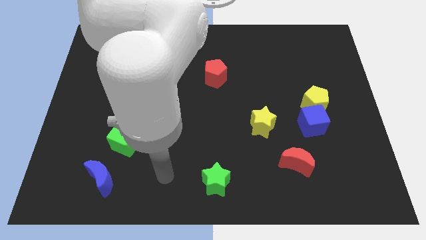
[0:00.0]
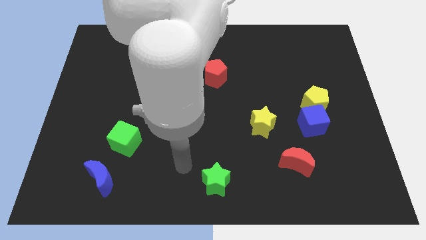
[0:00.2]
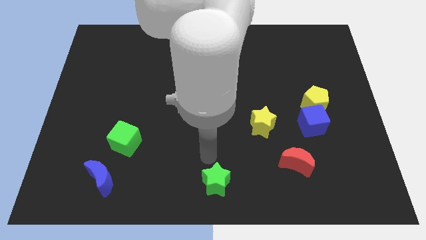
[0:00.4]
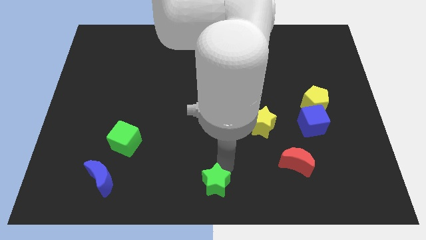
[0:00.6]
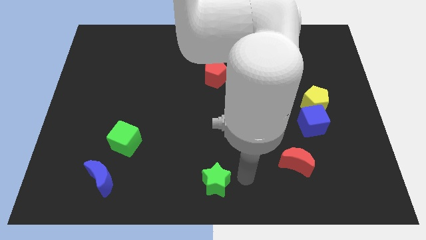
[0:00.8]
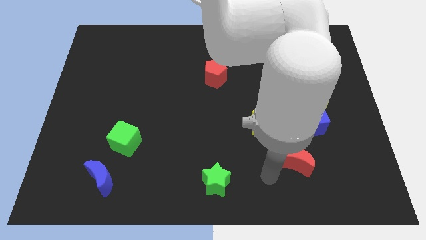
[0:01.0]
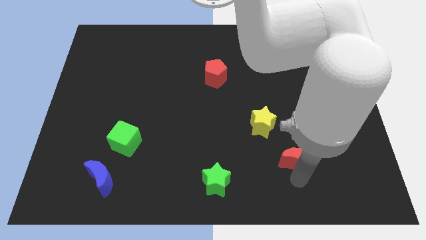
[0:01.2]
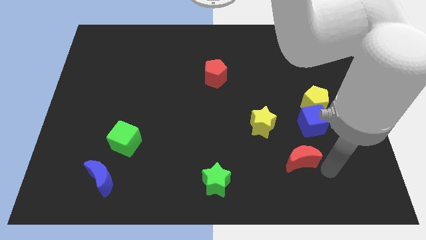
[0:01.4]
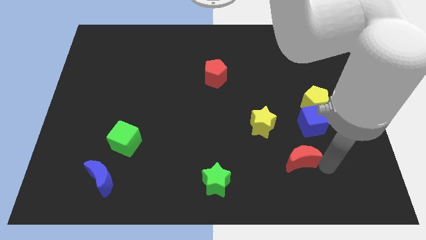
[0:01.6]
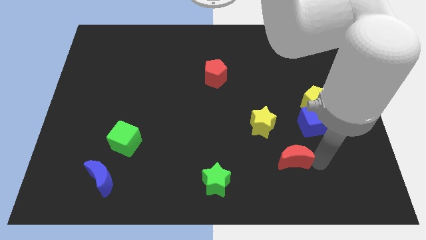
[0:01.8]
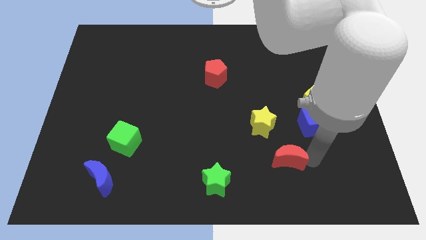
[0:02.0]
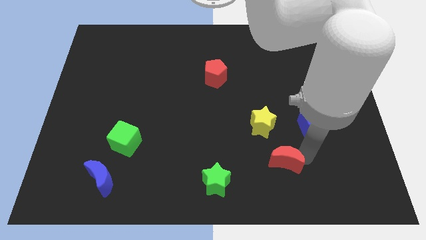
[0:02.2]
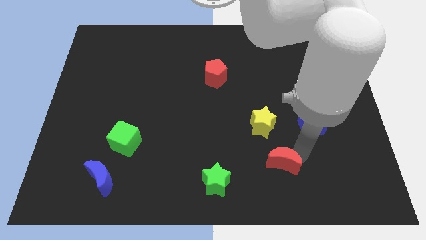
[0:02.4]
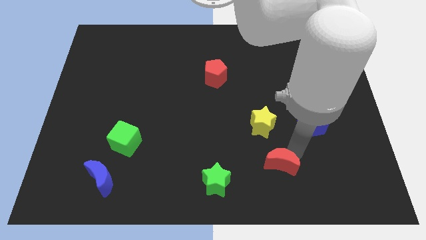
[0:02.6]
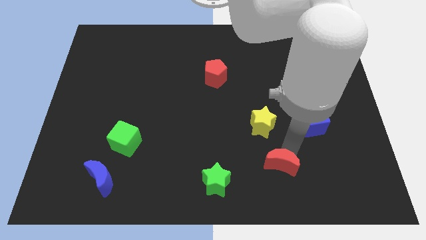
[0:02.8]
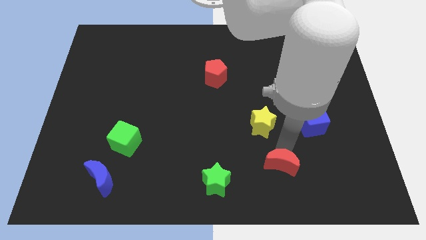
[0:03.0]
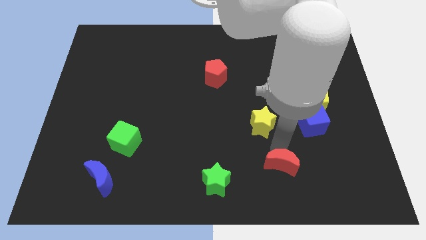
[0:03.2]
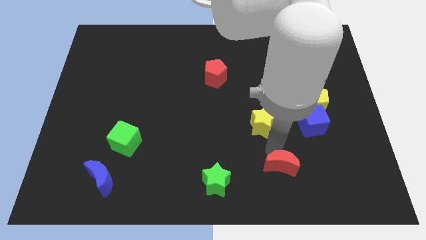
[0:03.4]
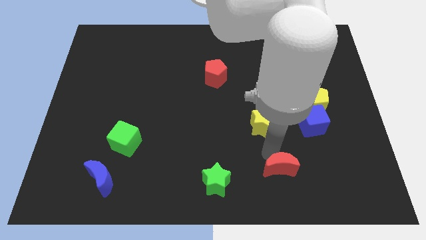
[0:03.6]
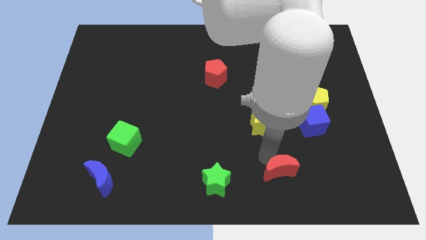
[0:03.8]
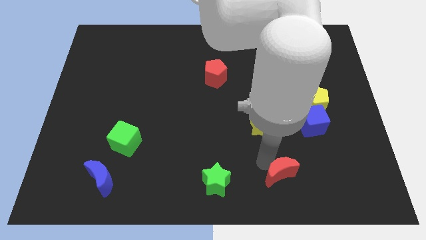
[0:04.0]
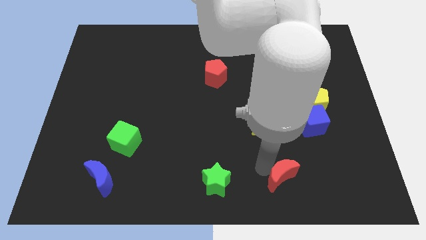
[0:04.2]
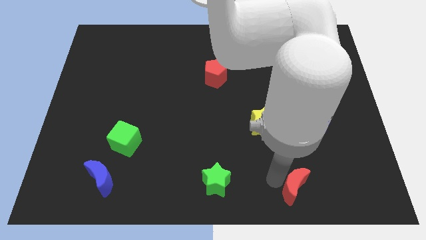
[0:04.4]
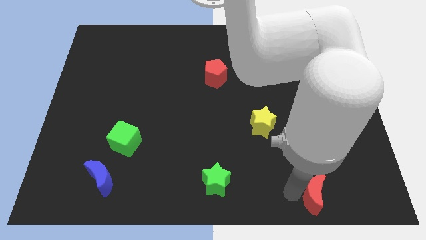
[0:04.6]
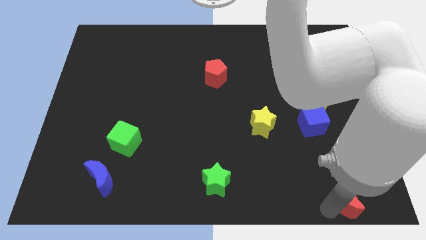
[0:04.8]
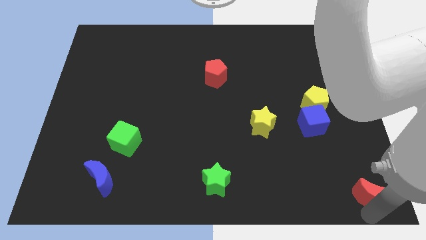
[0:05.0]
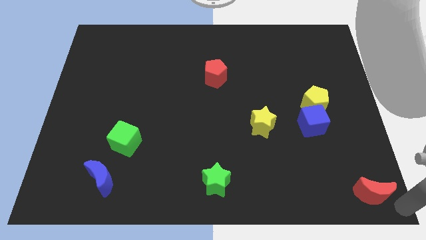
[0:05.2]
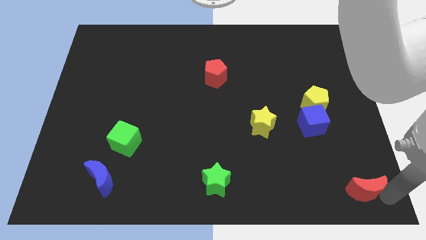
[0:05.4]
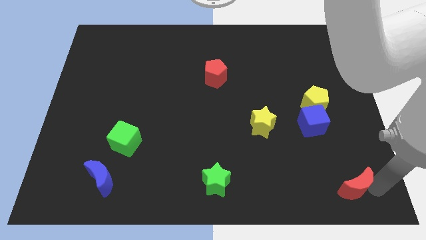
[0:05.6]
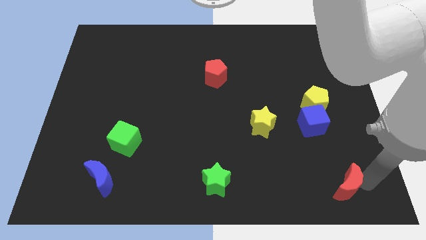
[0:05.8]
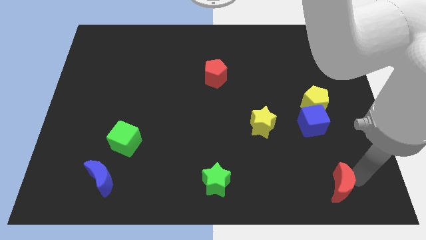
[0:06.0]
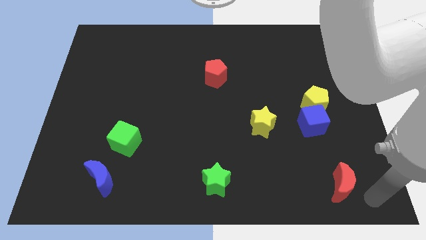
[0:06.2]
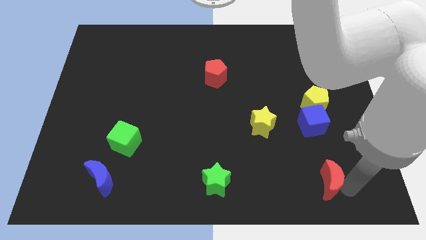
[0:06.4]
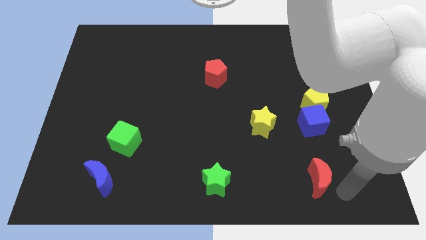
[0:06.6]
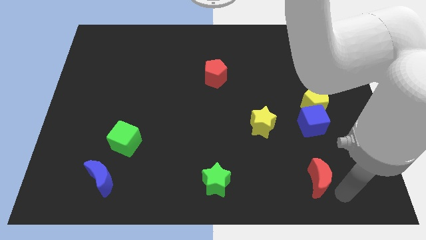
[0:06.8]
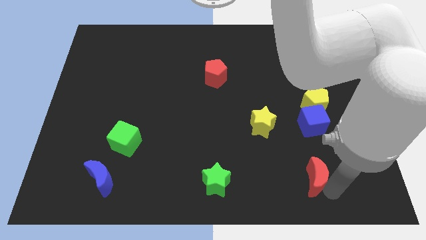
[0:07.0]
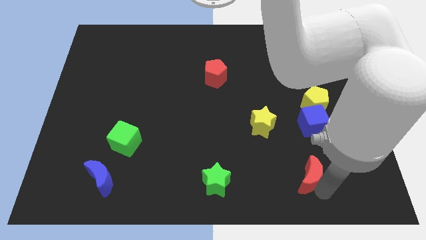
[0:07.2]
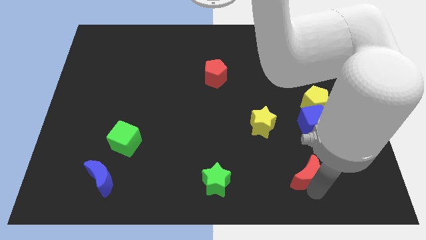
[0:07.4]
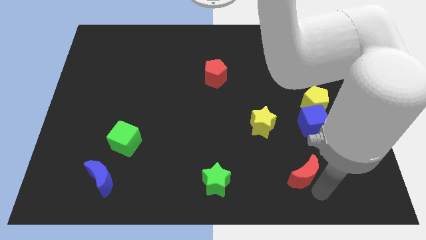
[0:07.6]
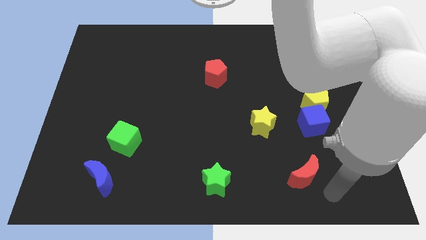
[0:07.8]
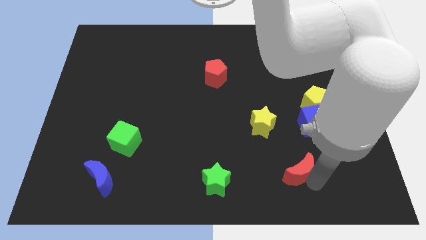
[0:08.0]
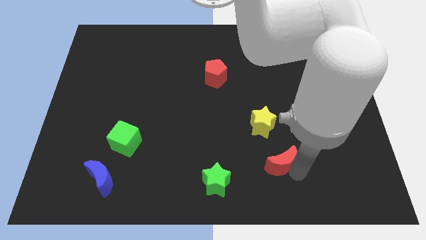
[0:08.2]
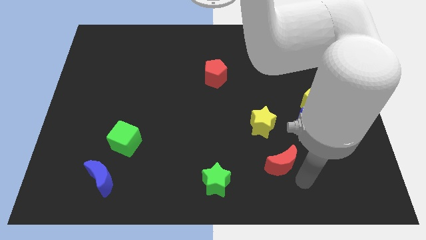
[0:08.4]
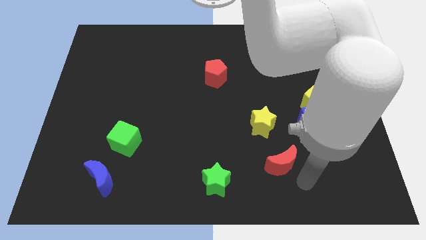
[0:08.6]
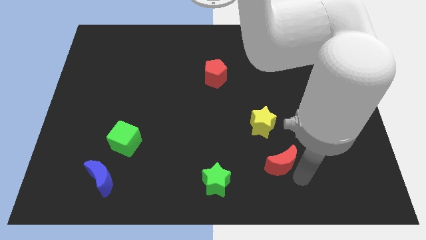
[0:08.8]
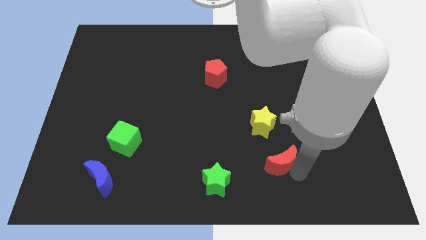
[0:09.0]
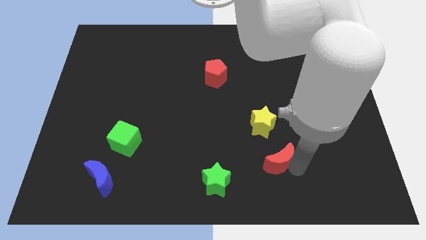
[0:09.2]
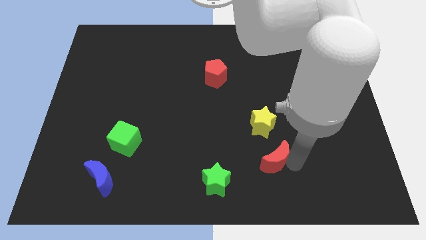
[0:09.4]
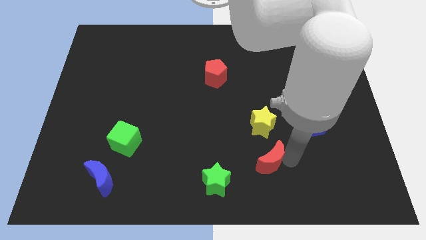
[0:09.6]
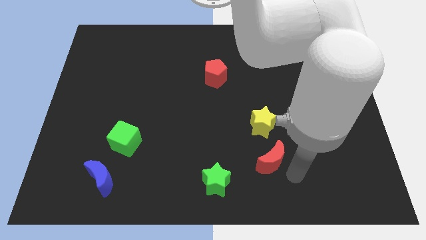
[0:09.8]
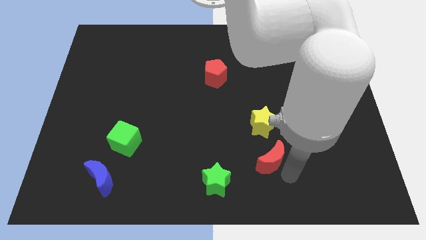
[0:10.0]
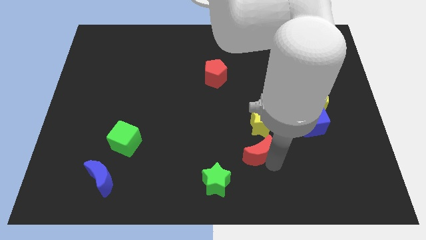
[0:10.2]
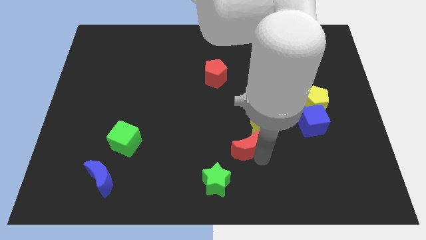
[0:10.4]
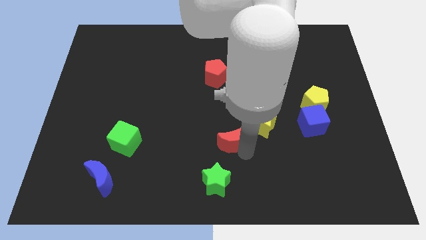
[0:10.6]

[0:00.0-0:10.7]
put the red moon to the middle

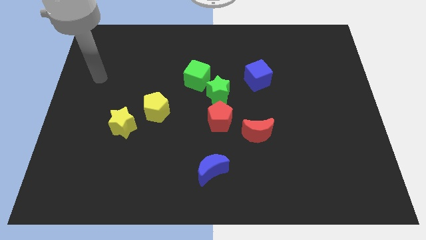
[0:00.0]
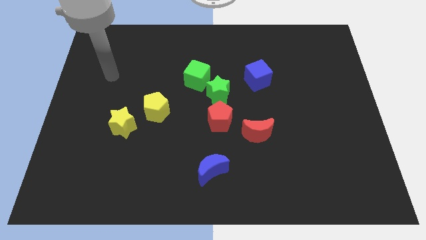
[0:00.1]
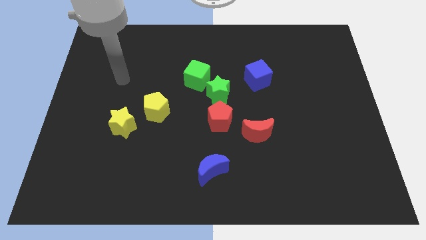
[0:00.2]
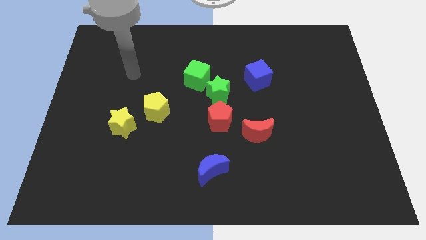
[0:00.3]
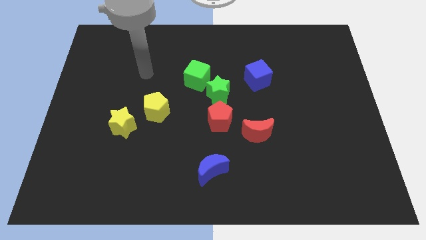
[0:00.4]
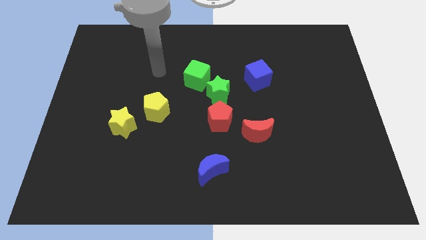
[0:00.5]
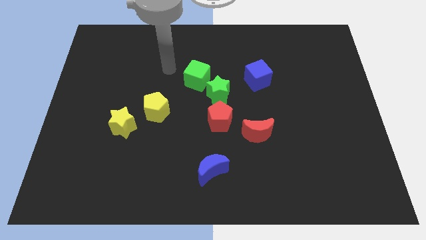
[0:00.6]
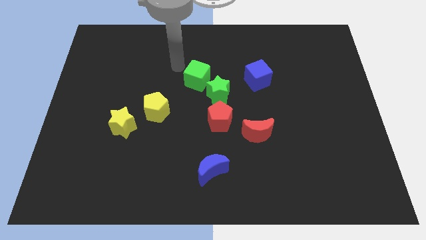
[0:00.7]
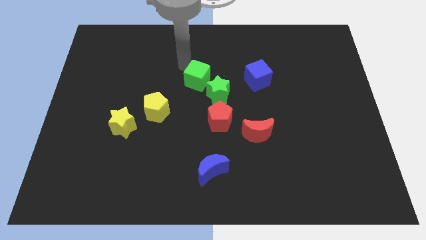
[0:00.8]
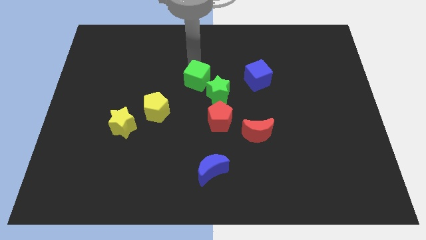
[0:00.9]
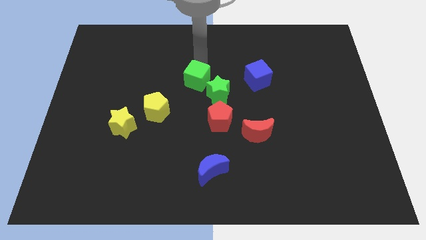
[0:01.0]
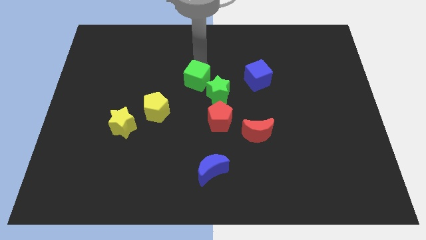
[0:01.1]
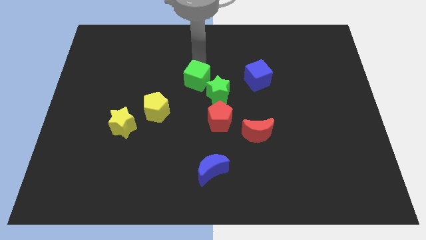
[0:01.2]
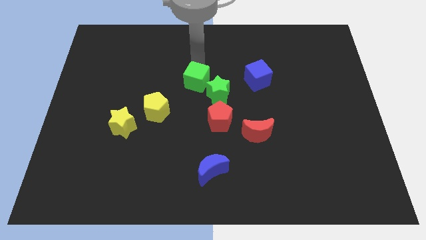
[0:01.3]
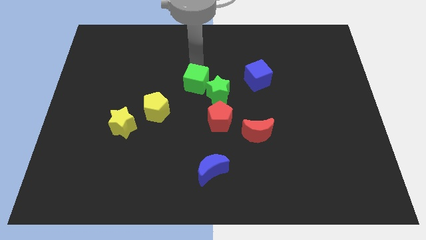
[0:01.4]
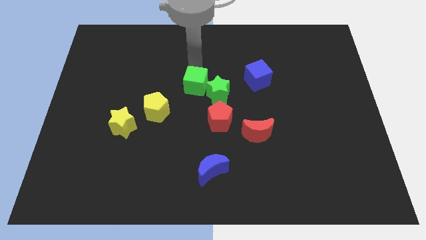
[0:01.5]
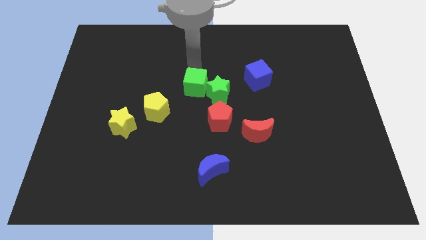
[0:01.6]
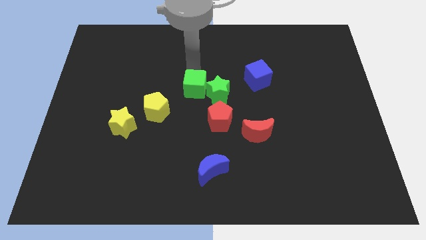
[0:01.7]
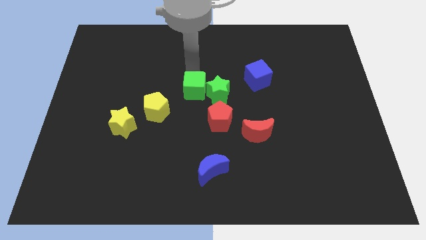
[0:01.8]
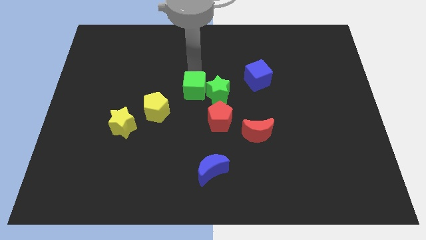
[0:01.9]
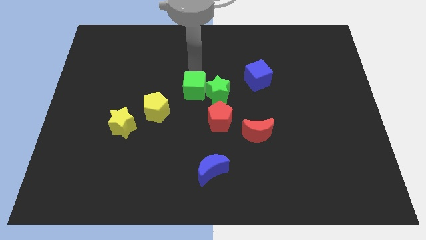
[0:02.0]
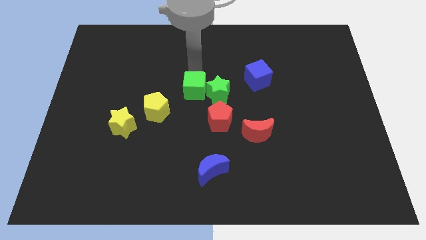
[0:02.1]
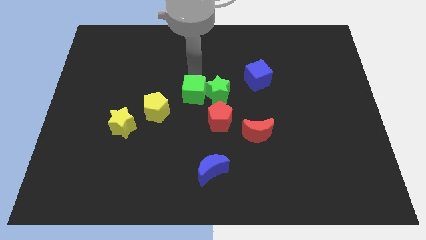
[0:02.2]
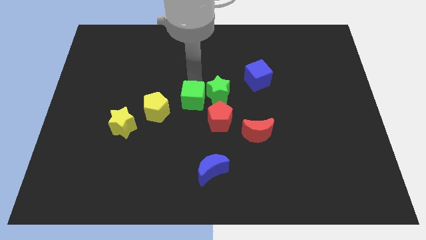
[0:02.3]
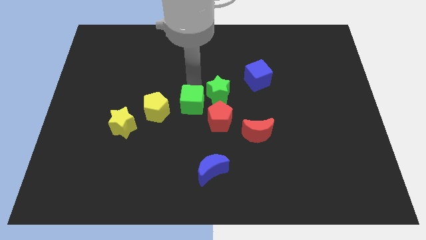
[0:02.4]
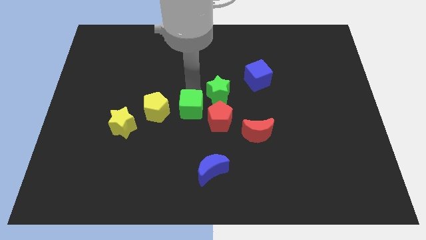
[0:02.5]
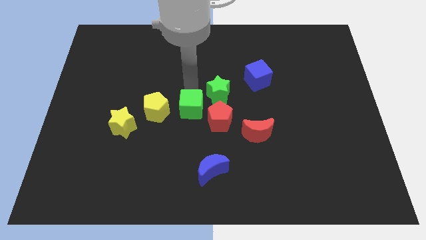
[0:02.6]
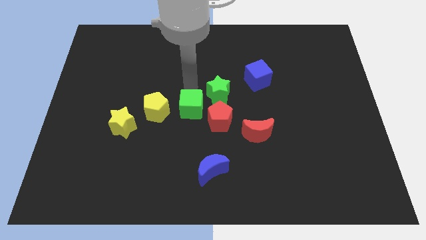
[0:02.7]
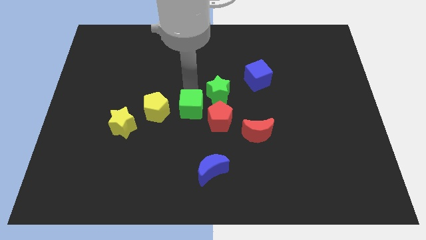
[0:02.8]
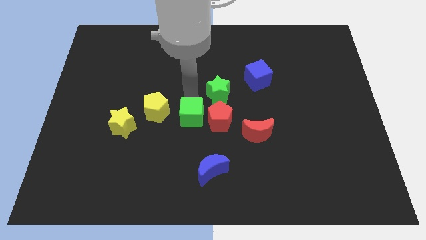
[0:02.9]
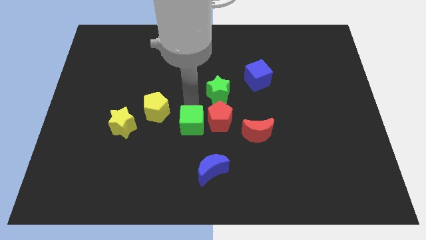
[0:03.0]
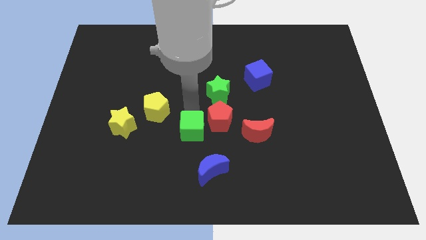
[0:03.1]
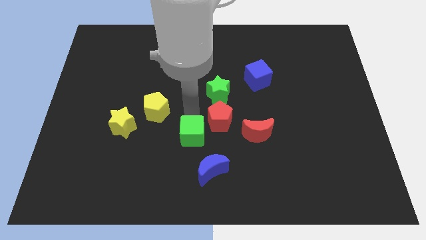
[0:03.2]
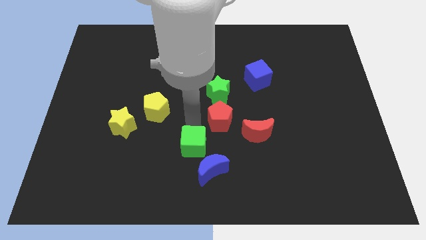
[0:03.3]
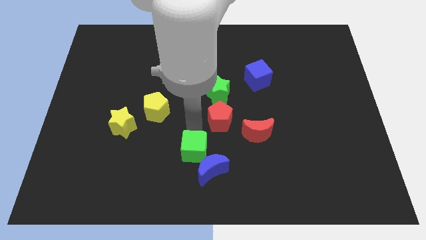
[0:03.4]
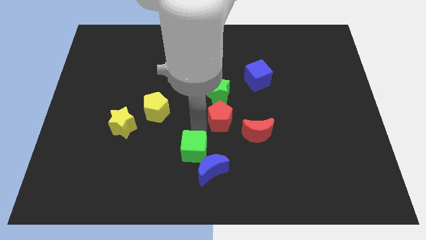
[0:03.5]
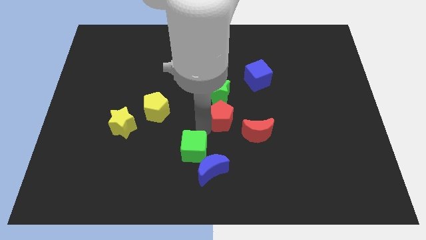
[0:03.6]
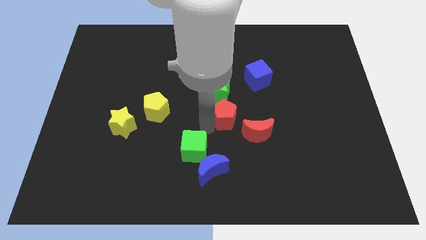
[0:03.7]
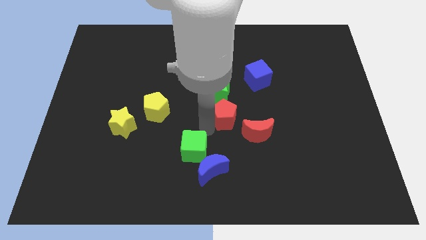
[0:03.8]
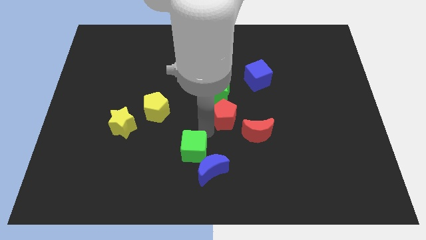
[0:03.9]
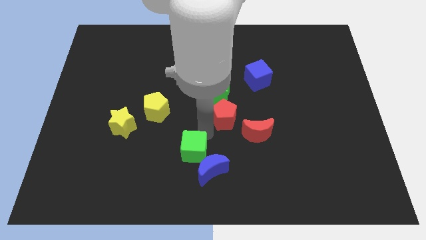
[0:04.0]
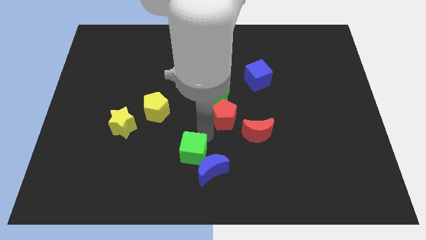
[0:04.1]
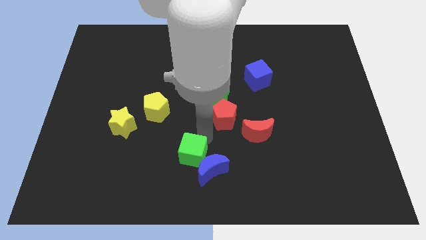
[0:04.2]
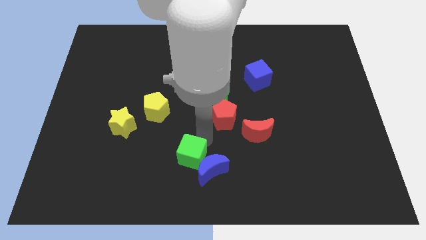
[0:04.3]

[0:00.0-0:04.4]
push the green cube to the bottom
